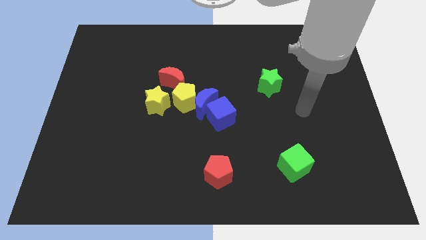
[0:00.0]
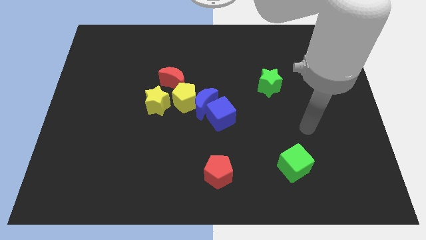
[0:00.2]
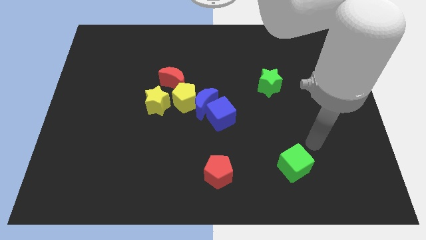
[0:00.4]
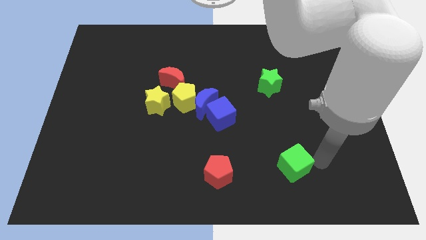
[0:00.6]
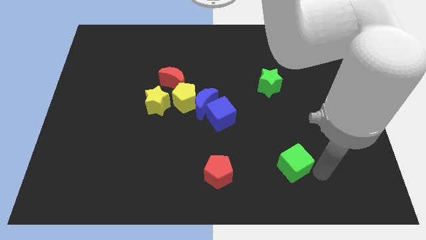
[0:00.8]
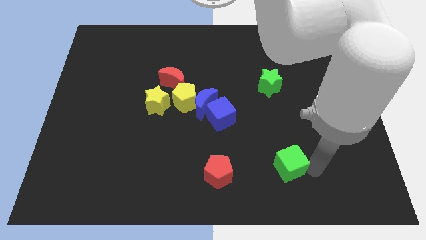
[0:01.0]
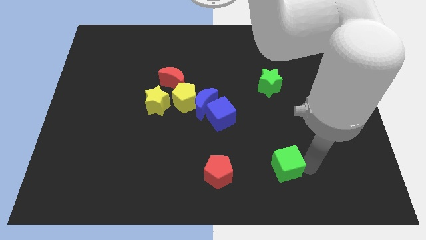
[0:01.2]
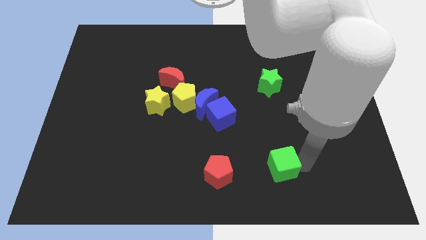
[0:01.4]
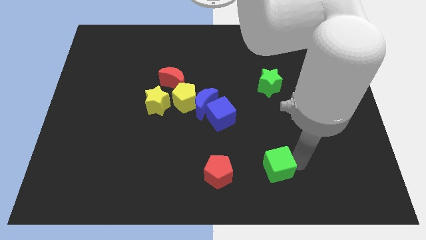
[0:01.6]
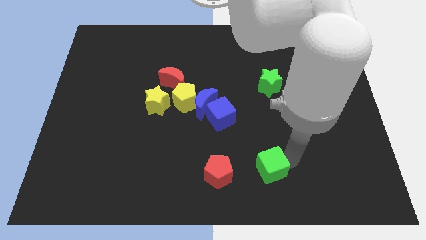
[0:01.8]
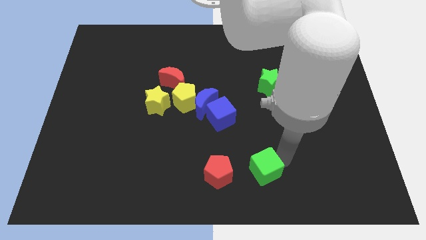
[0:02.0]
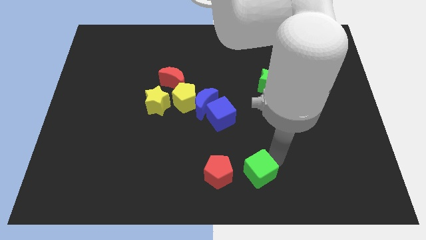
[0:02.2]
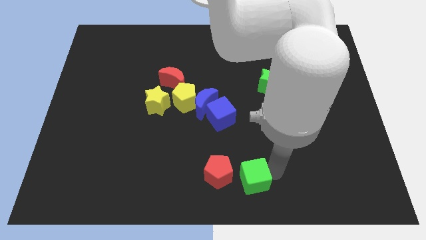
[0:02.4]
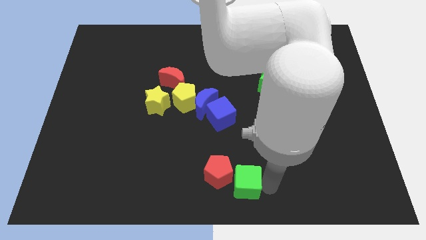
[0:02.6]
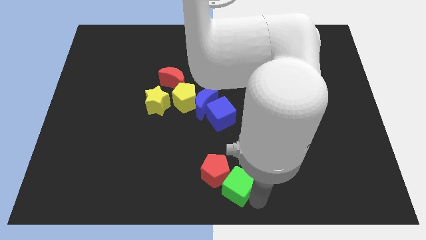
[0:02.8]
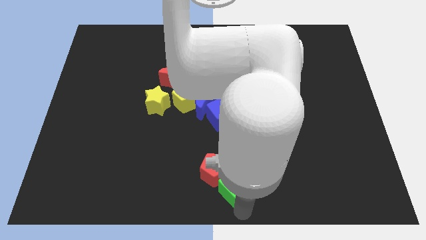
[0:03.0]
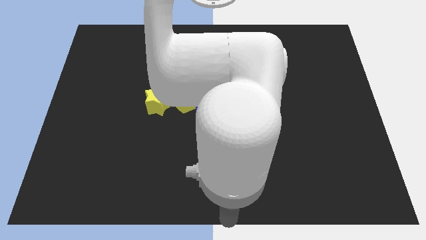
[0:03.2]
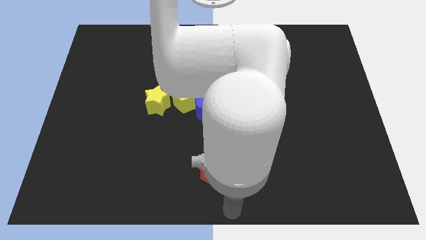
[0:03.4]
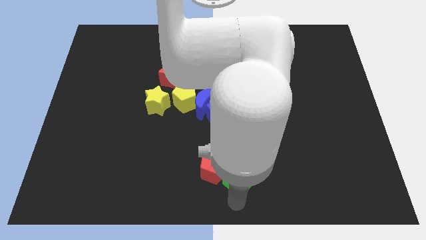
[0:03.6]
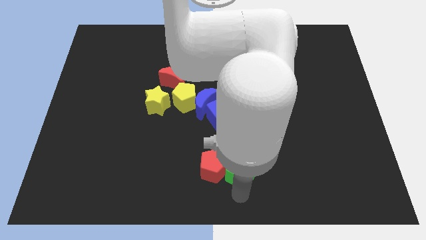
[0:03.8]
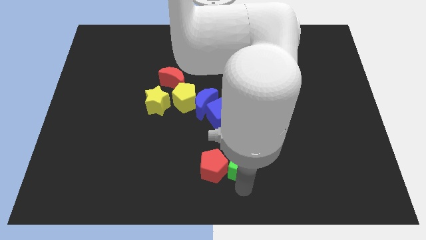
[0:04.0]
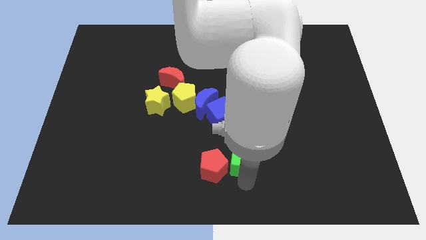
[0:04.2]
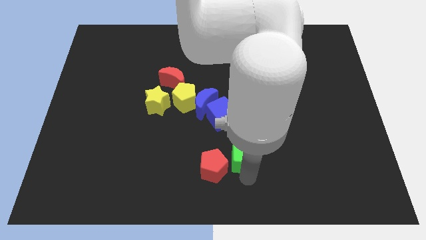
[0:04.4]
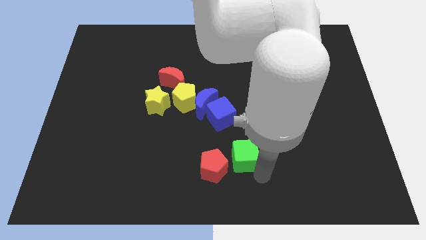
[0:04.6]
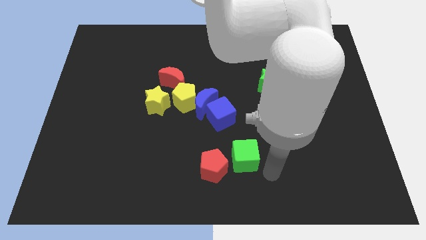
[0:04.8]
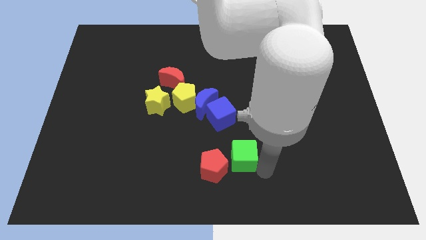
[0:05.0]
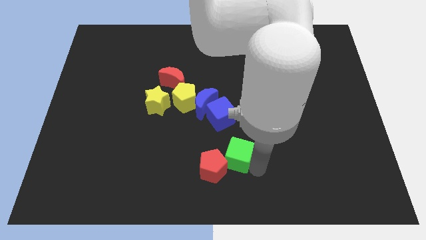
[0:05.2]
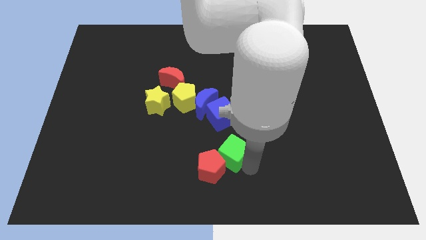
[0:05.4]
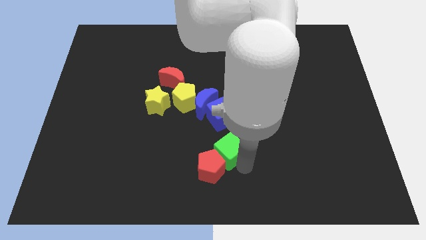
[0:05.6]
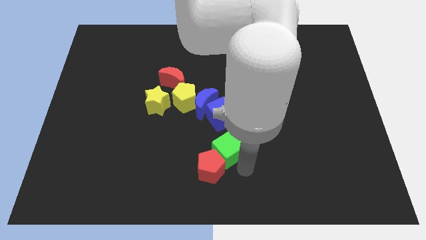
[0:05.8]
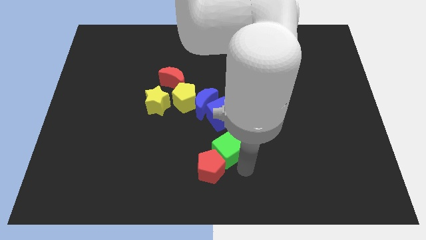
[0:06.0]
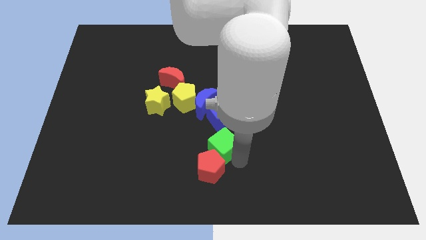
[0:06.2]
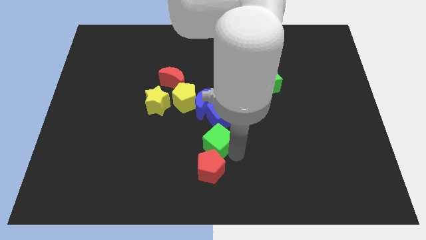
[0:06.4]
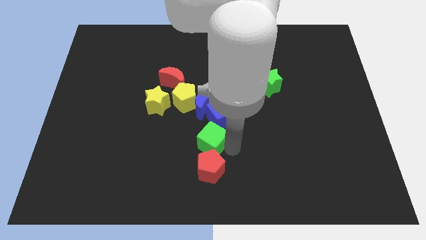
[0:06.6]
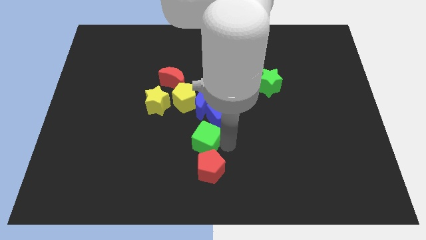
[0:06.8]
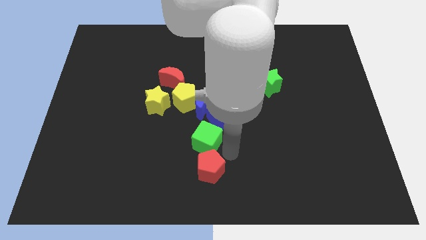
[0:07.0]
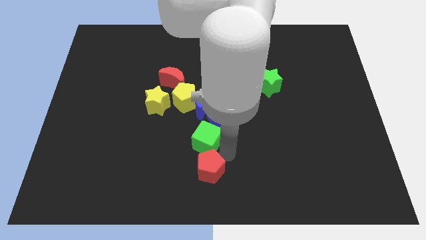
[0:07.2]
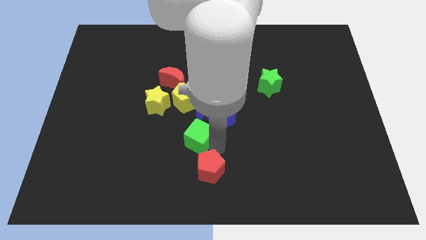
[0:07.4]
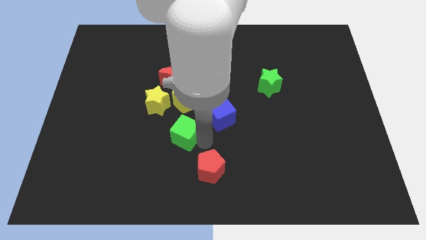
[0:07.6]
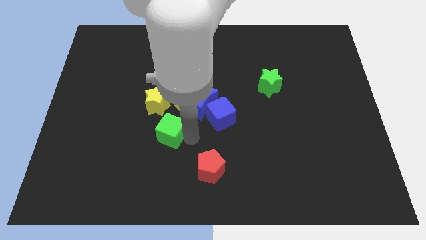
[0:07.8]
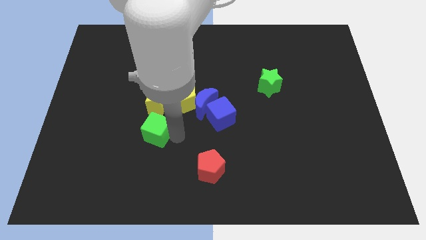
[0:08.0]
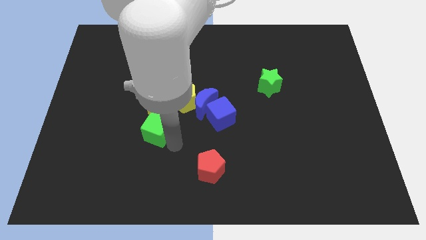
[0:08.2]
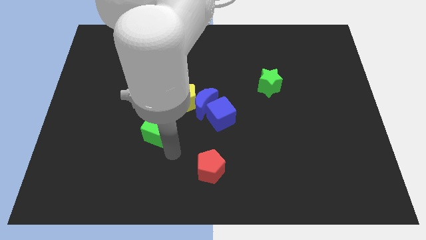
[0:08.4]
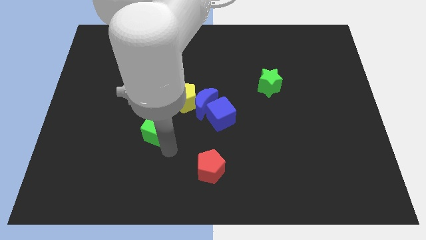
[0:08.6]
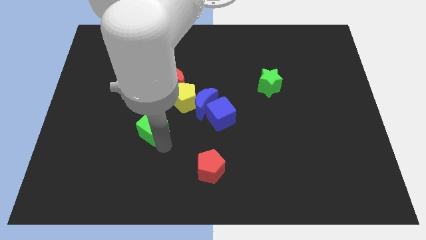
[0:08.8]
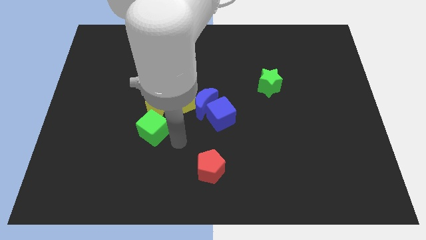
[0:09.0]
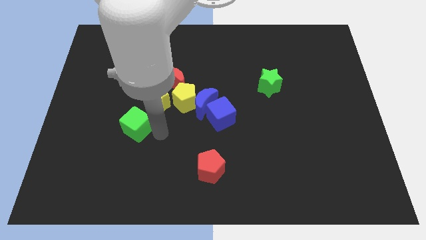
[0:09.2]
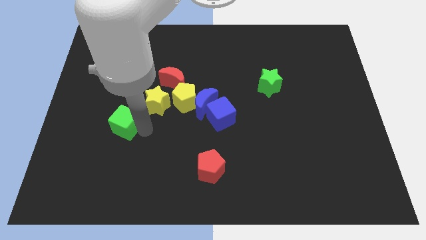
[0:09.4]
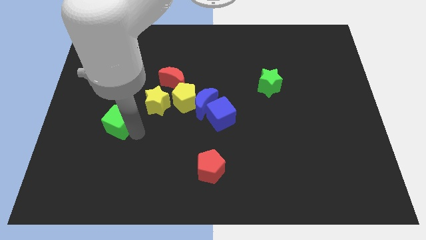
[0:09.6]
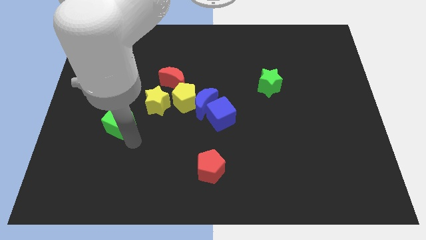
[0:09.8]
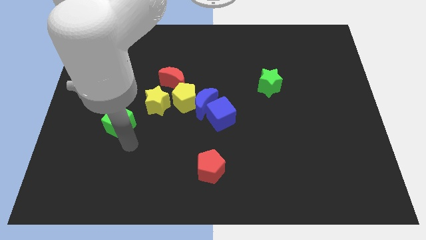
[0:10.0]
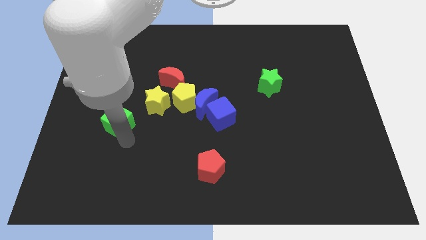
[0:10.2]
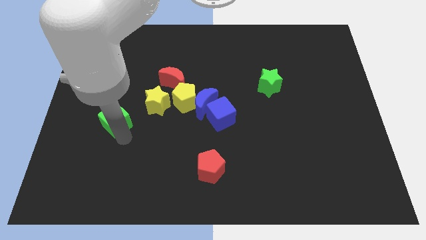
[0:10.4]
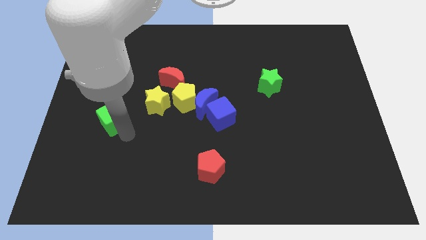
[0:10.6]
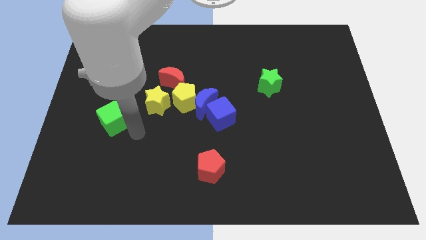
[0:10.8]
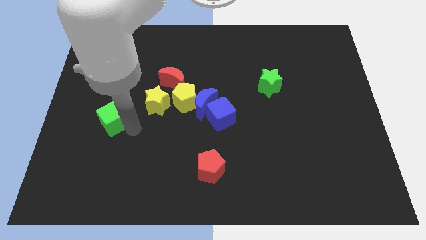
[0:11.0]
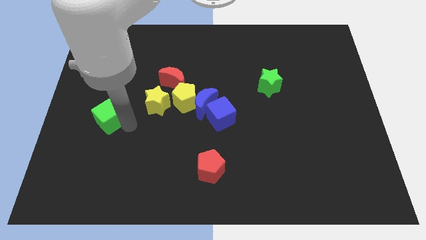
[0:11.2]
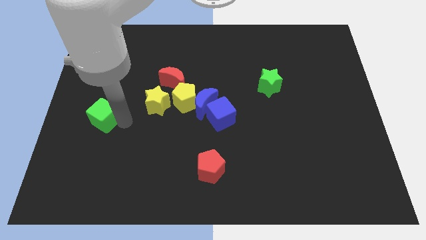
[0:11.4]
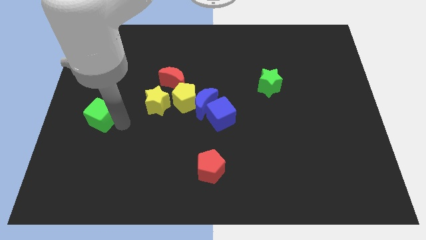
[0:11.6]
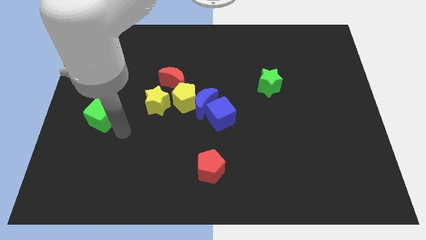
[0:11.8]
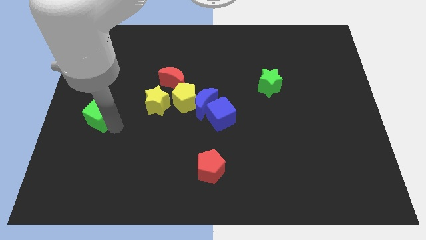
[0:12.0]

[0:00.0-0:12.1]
put the green cube to the center left
